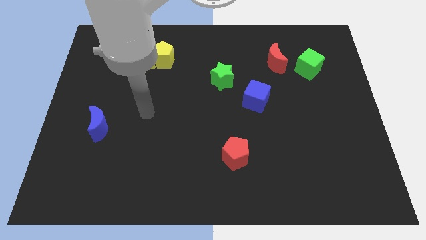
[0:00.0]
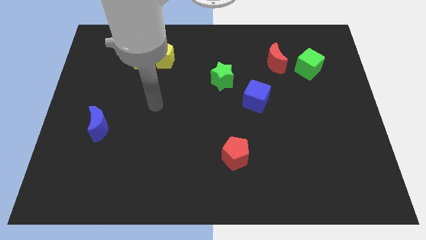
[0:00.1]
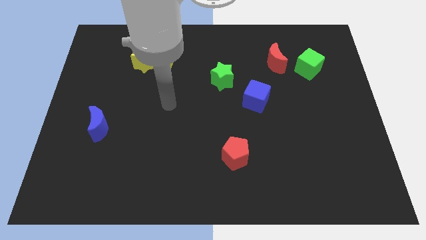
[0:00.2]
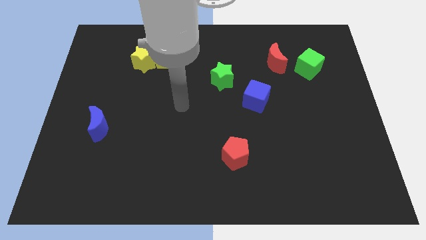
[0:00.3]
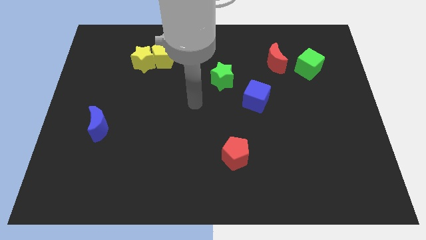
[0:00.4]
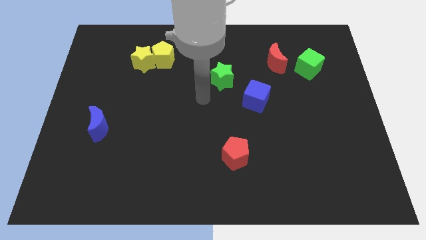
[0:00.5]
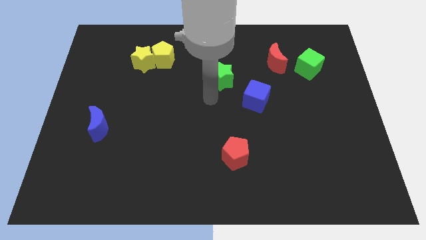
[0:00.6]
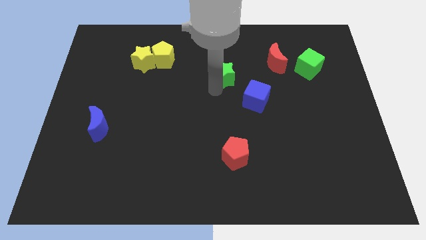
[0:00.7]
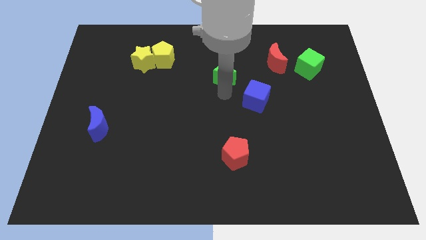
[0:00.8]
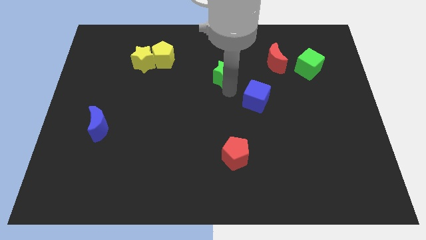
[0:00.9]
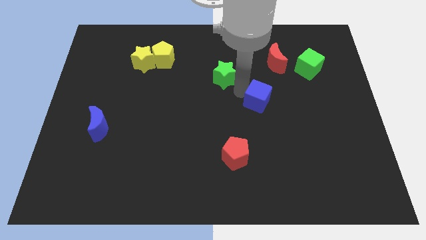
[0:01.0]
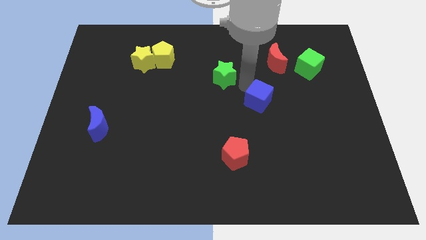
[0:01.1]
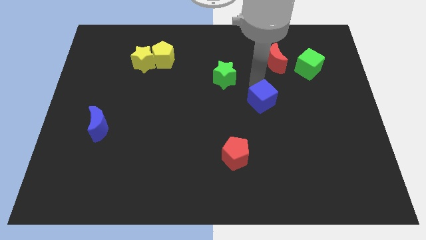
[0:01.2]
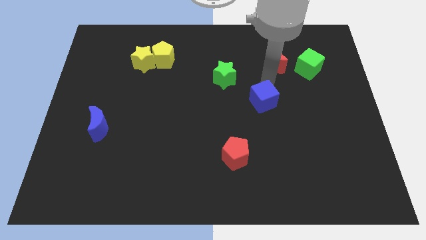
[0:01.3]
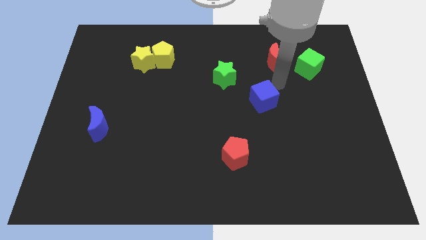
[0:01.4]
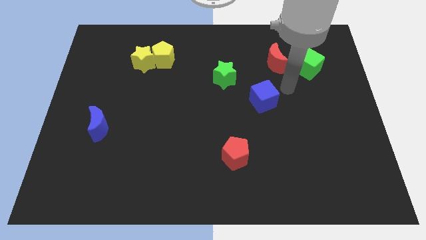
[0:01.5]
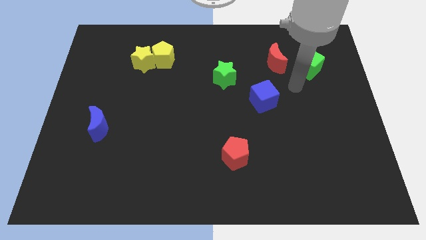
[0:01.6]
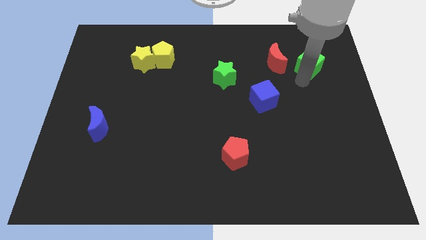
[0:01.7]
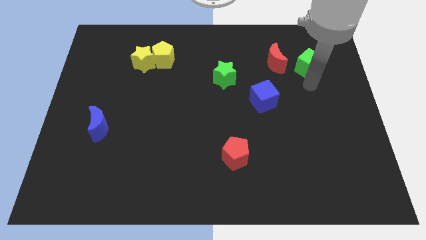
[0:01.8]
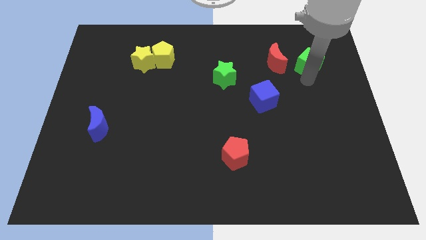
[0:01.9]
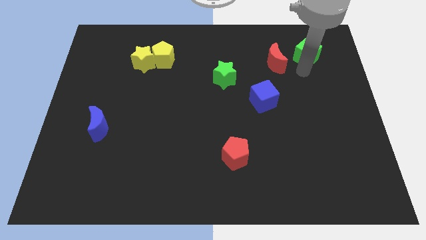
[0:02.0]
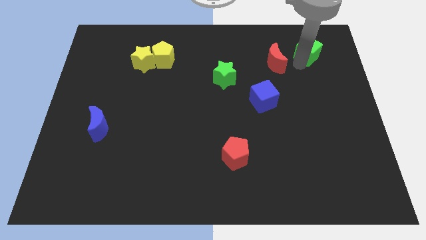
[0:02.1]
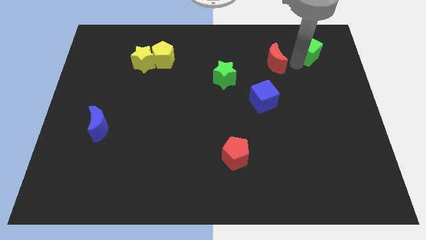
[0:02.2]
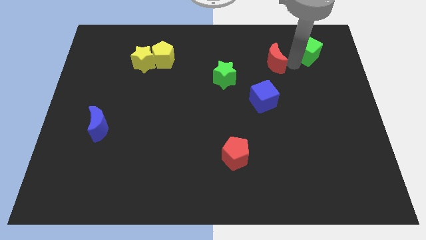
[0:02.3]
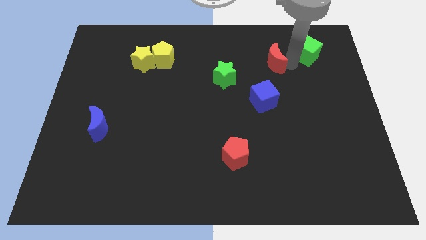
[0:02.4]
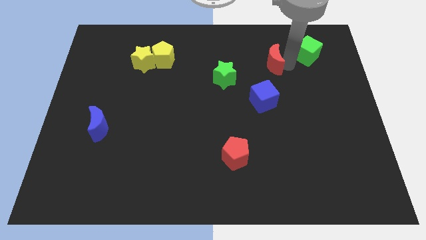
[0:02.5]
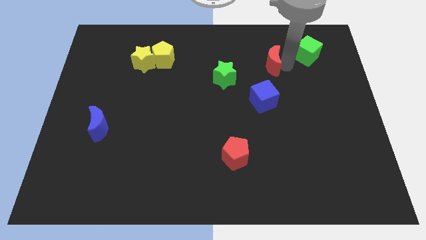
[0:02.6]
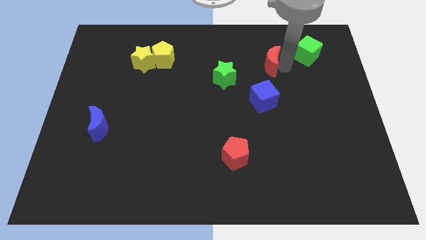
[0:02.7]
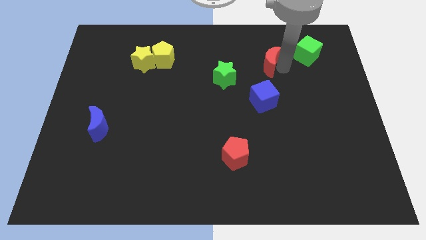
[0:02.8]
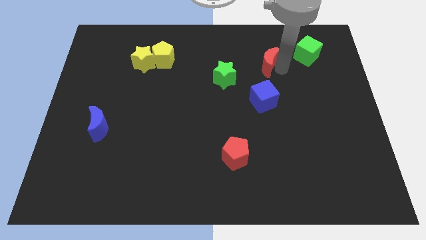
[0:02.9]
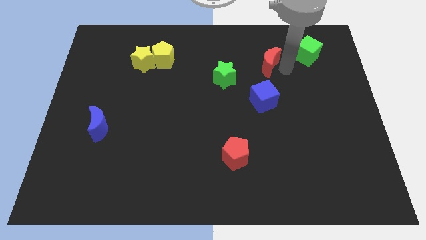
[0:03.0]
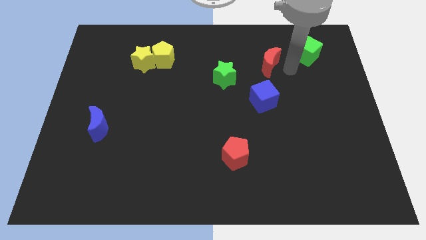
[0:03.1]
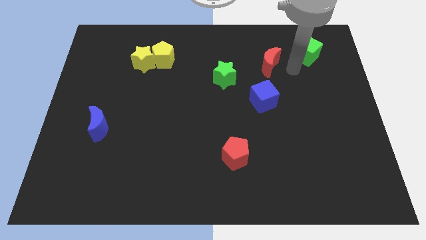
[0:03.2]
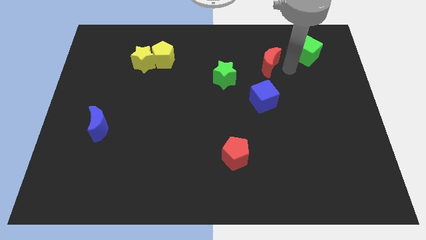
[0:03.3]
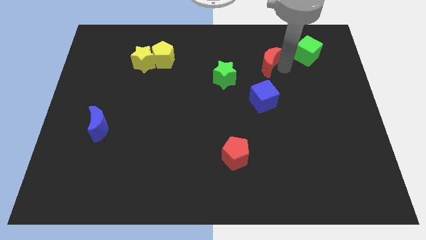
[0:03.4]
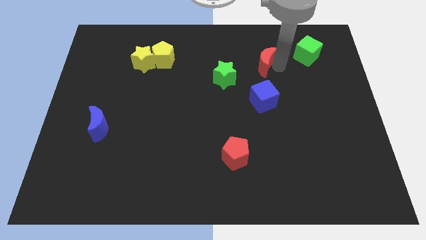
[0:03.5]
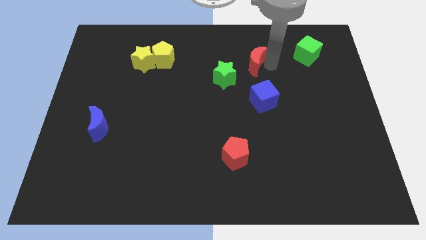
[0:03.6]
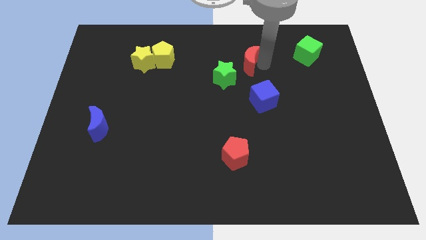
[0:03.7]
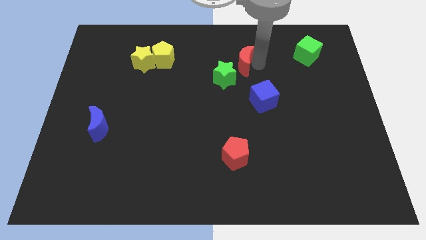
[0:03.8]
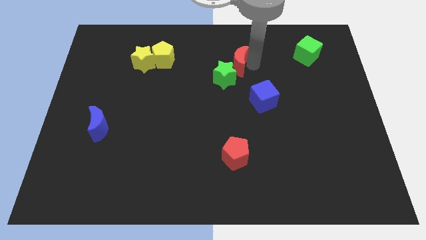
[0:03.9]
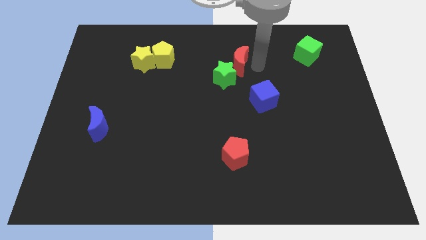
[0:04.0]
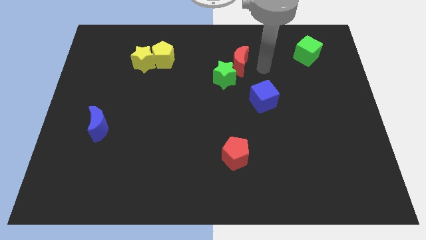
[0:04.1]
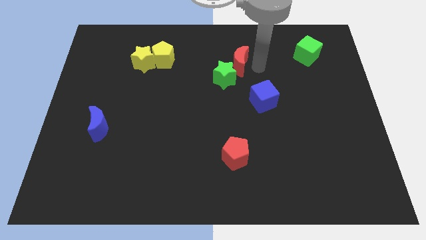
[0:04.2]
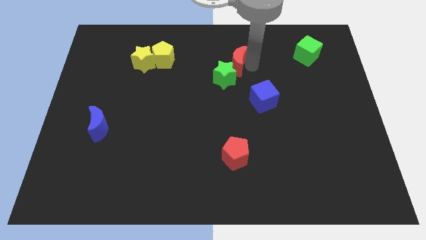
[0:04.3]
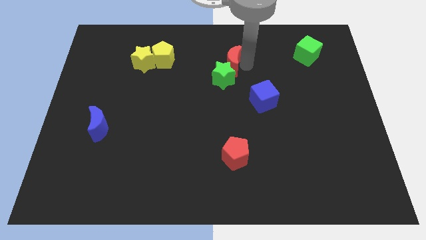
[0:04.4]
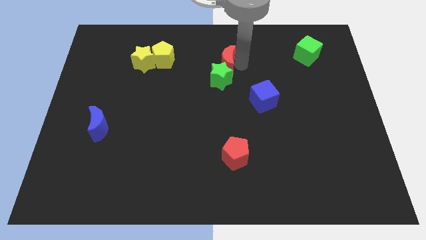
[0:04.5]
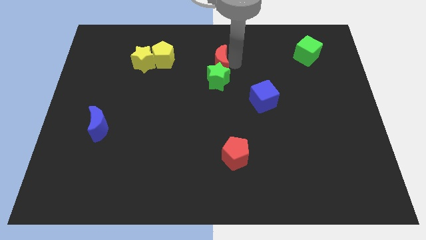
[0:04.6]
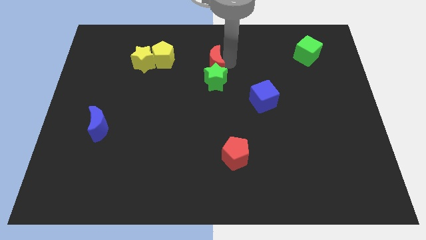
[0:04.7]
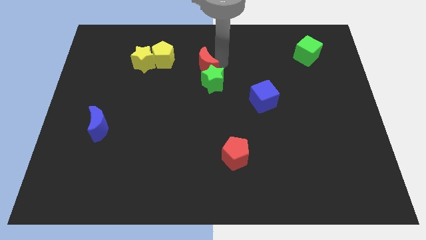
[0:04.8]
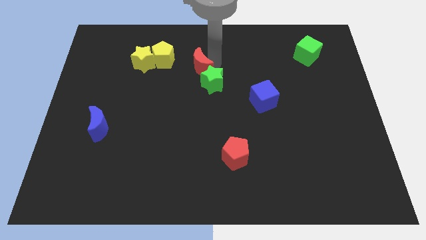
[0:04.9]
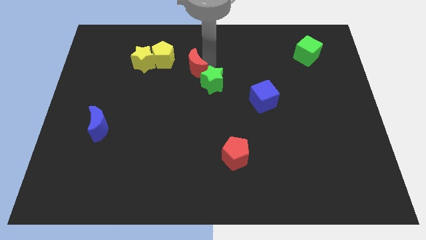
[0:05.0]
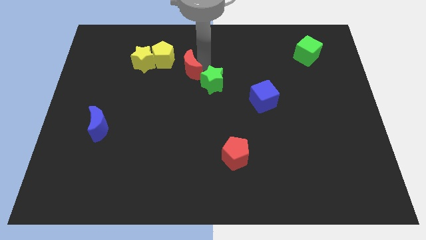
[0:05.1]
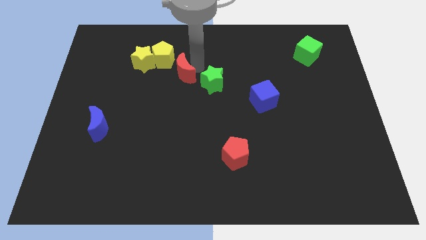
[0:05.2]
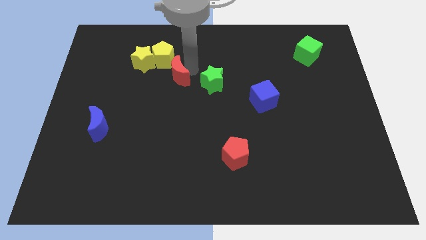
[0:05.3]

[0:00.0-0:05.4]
move the red moon diagonally down and to the right of the yellow star

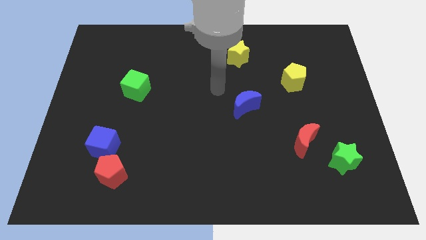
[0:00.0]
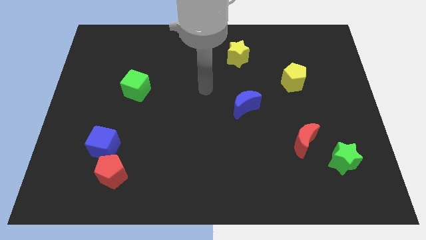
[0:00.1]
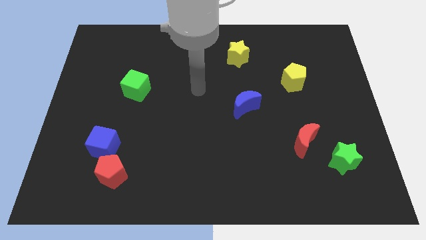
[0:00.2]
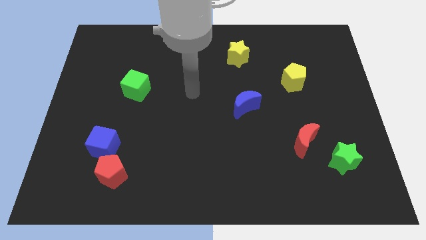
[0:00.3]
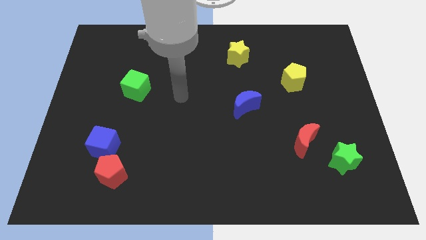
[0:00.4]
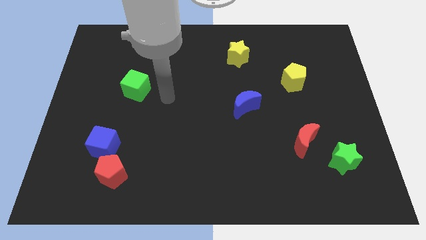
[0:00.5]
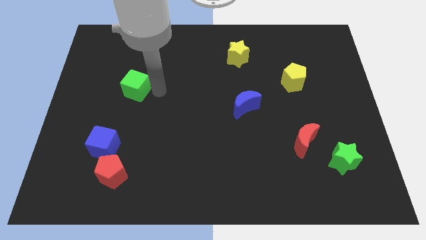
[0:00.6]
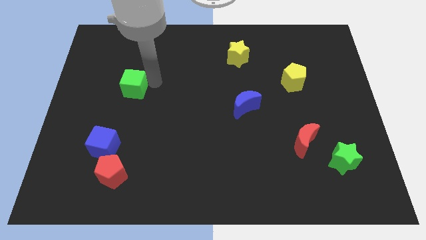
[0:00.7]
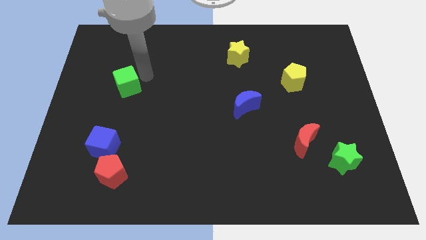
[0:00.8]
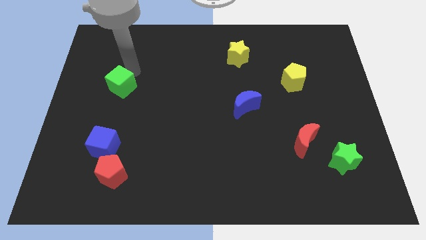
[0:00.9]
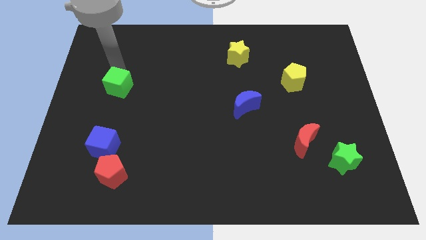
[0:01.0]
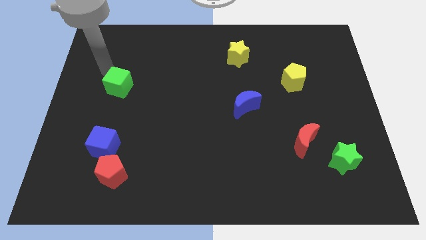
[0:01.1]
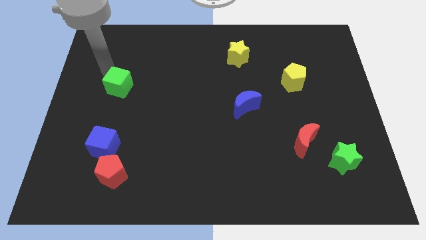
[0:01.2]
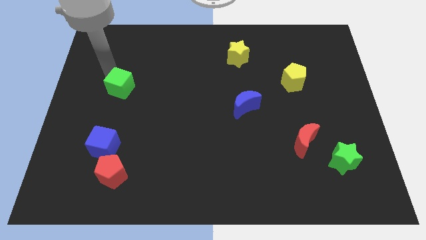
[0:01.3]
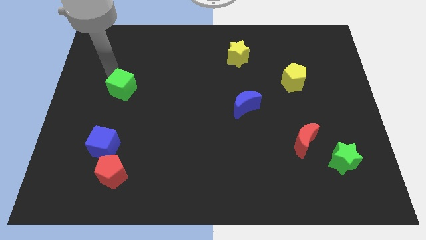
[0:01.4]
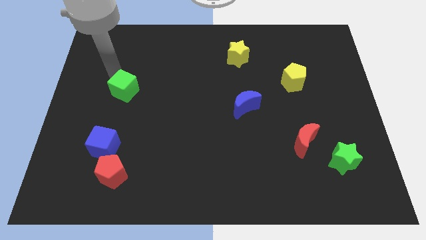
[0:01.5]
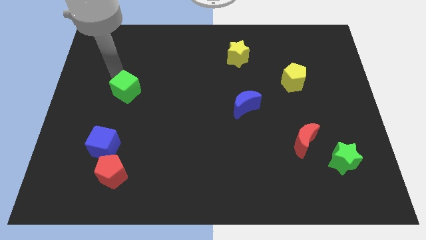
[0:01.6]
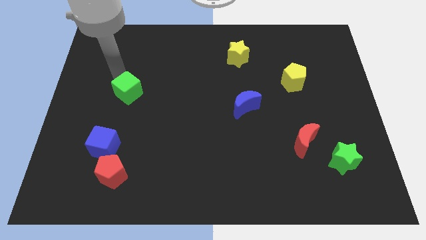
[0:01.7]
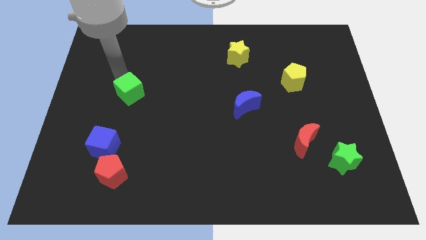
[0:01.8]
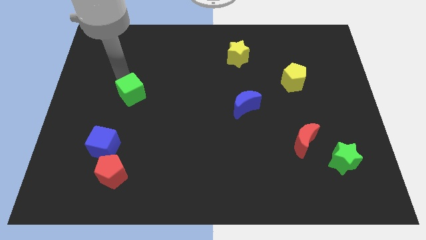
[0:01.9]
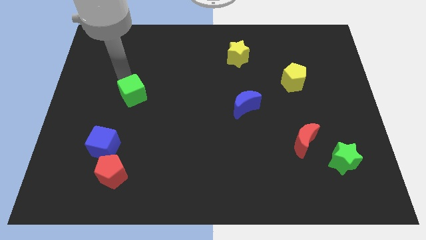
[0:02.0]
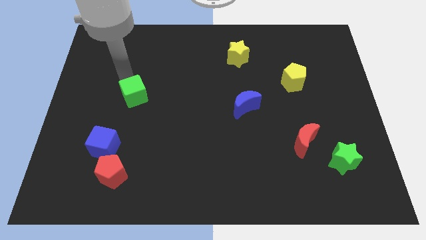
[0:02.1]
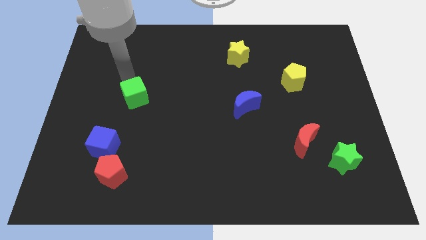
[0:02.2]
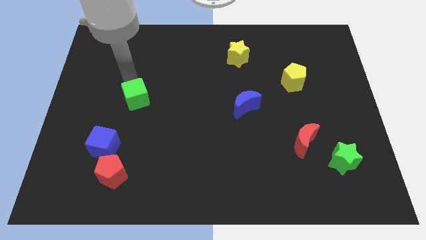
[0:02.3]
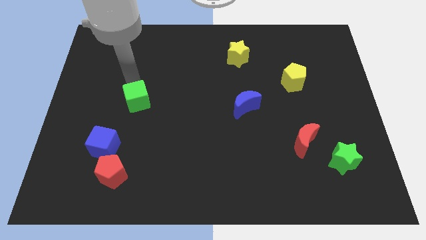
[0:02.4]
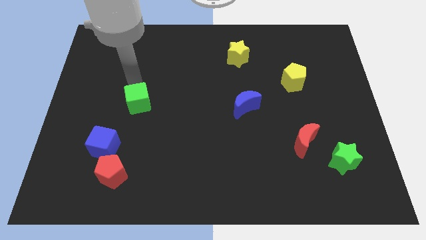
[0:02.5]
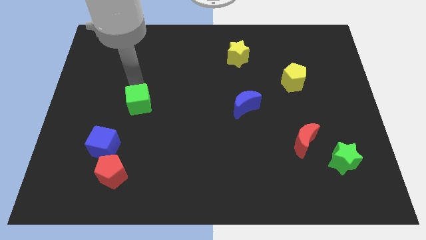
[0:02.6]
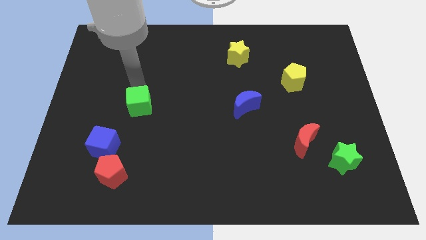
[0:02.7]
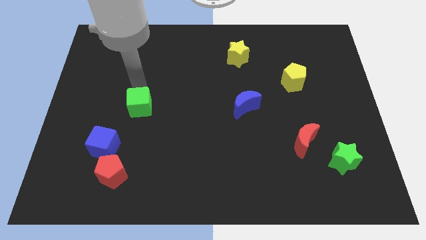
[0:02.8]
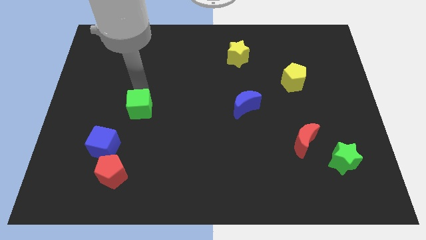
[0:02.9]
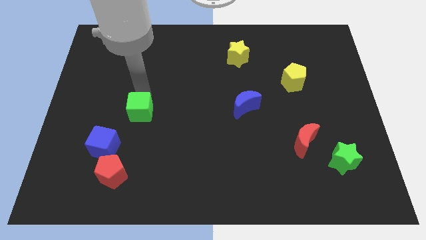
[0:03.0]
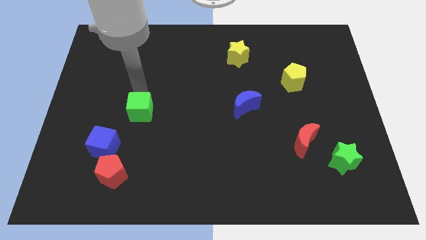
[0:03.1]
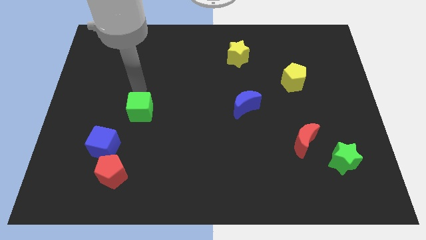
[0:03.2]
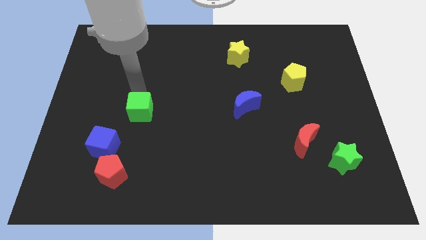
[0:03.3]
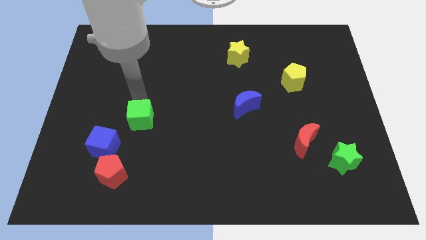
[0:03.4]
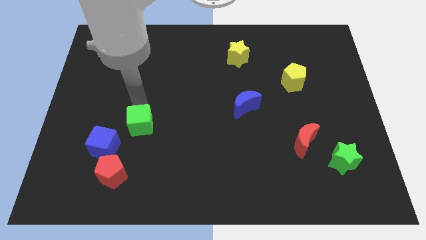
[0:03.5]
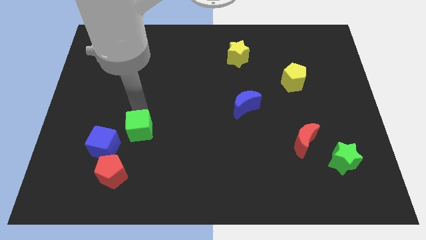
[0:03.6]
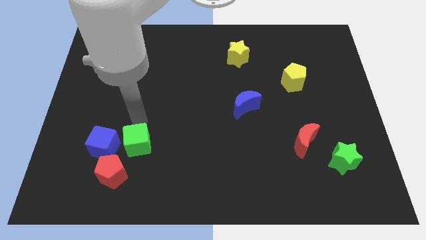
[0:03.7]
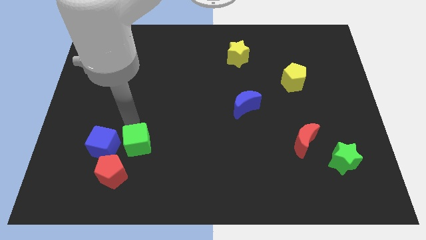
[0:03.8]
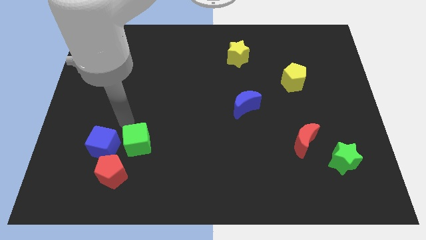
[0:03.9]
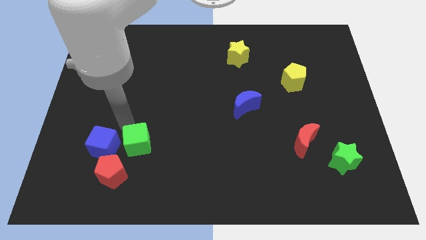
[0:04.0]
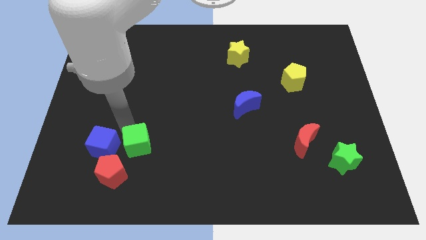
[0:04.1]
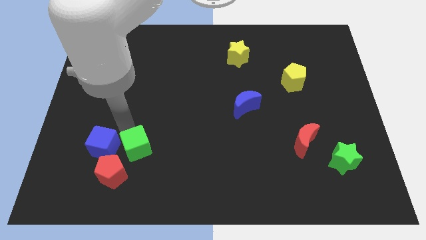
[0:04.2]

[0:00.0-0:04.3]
push the green cube to the bottom right side of the blue cube
